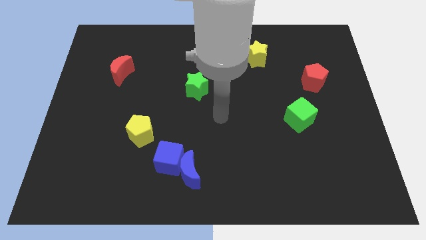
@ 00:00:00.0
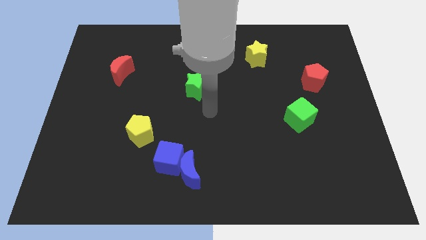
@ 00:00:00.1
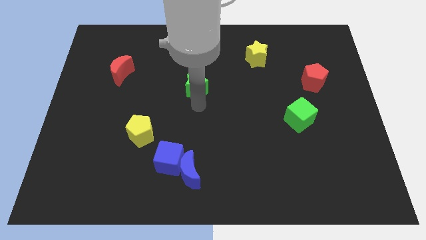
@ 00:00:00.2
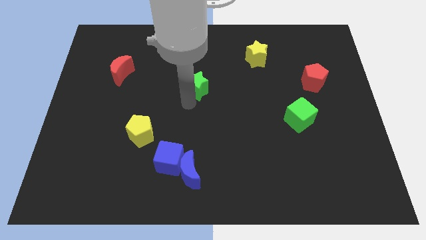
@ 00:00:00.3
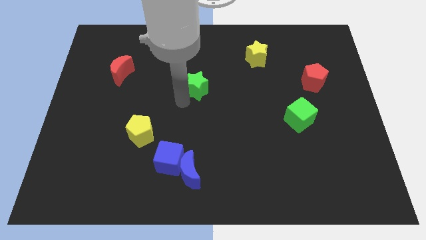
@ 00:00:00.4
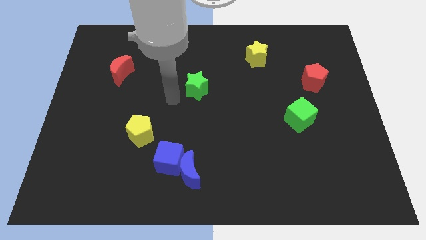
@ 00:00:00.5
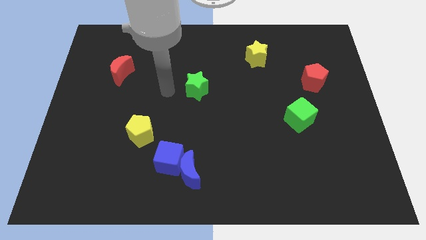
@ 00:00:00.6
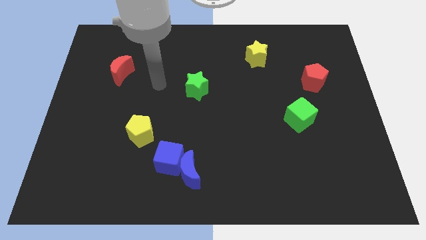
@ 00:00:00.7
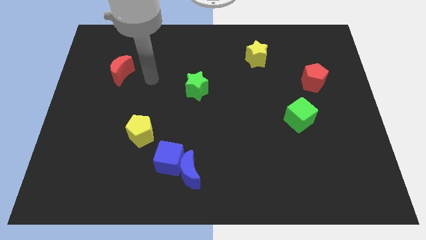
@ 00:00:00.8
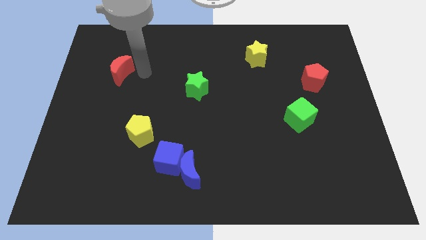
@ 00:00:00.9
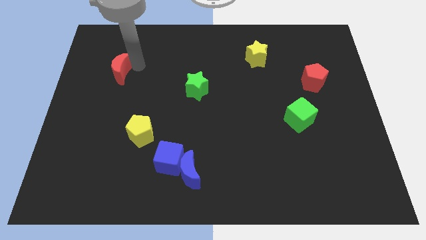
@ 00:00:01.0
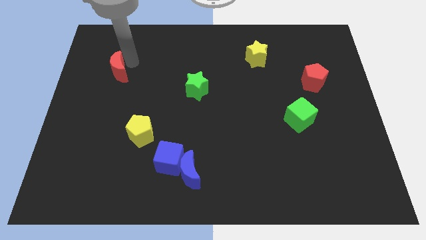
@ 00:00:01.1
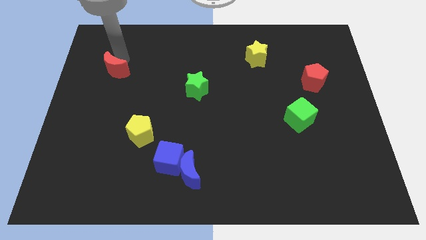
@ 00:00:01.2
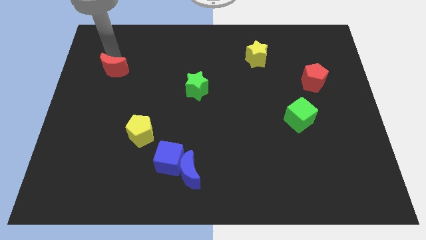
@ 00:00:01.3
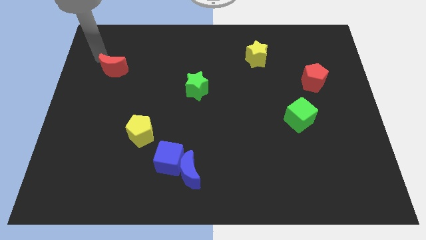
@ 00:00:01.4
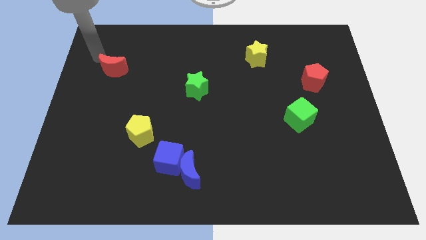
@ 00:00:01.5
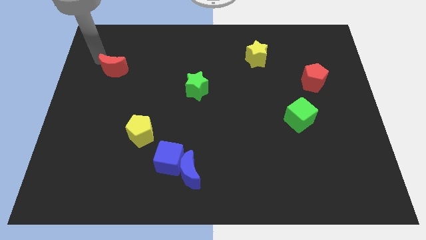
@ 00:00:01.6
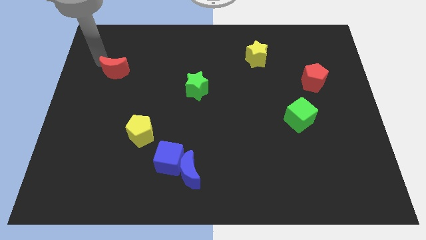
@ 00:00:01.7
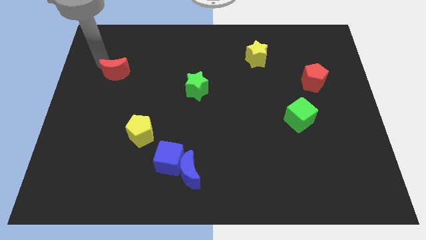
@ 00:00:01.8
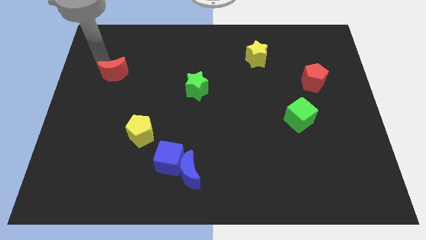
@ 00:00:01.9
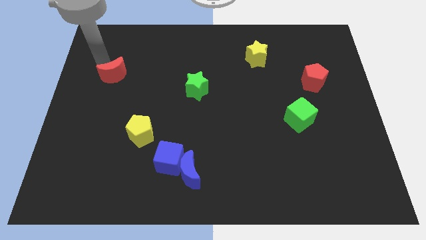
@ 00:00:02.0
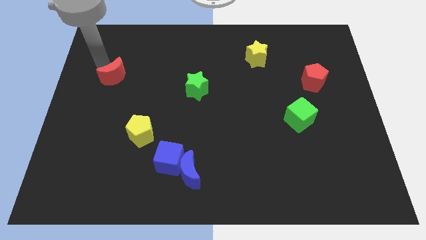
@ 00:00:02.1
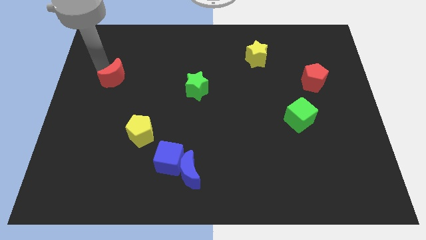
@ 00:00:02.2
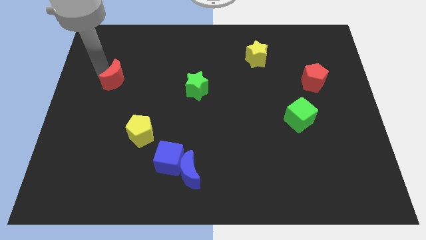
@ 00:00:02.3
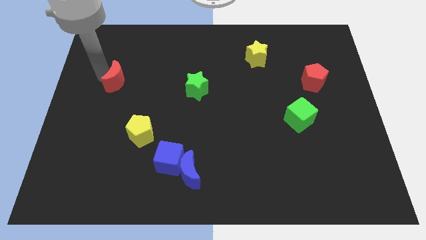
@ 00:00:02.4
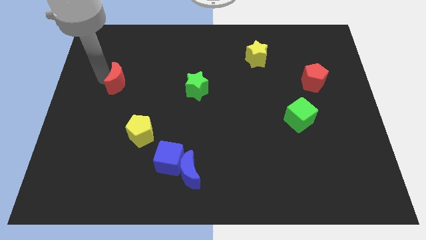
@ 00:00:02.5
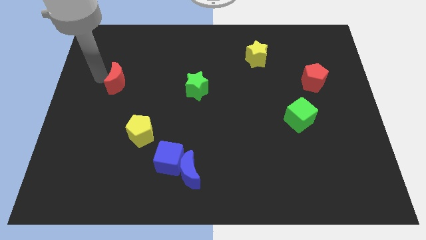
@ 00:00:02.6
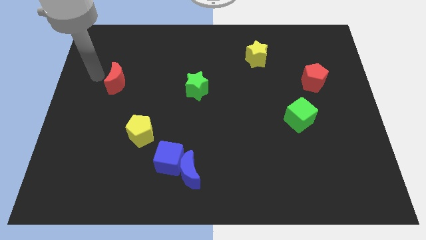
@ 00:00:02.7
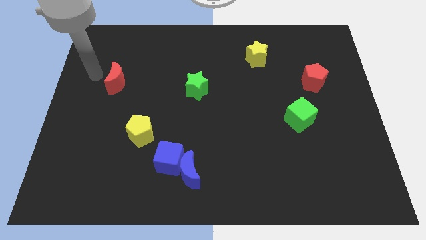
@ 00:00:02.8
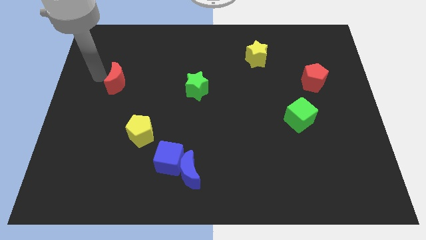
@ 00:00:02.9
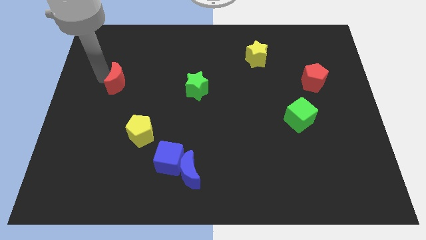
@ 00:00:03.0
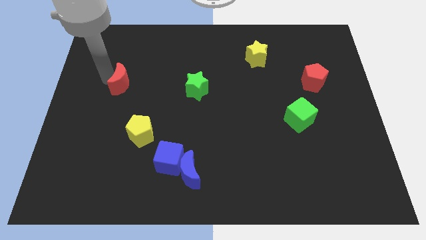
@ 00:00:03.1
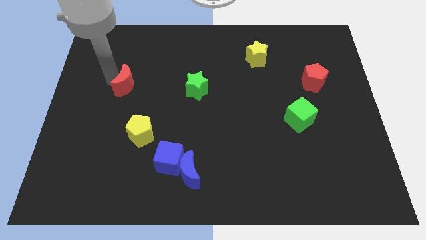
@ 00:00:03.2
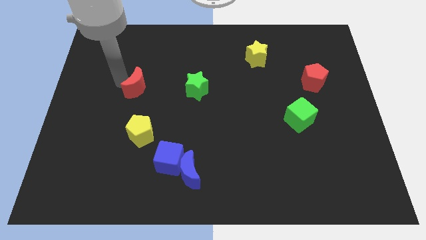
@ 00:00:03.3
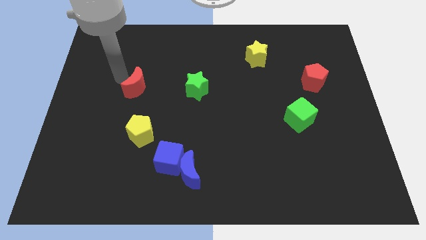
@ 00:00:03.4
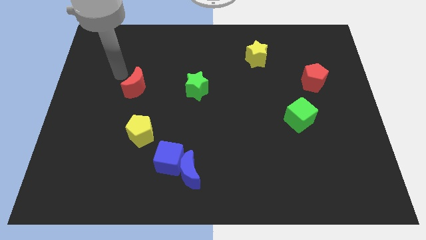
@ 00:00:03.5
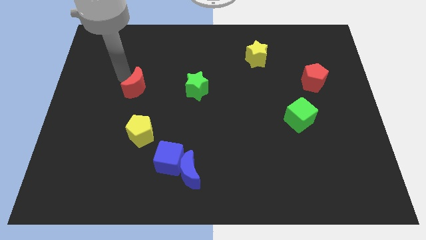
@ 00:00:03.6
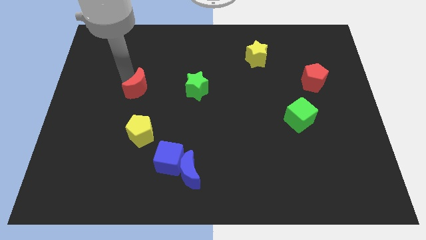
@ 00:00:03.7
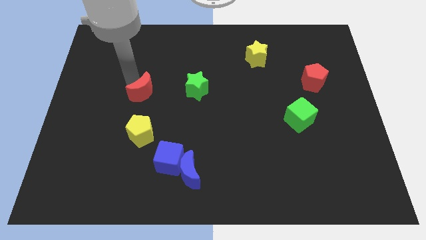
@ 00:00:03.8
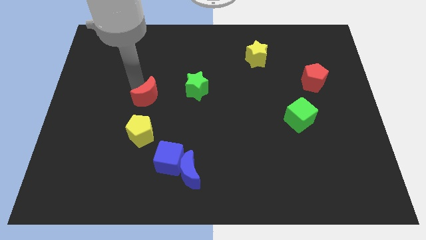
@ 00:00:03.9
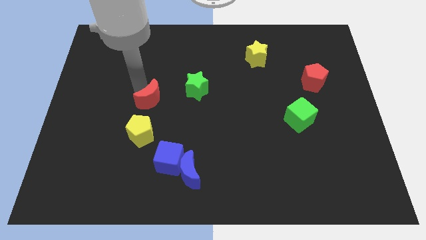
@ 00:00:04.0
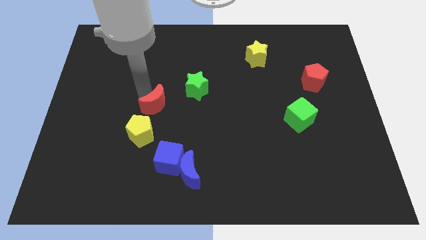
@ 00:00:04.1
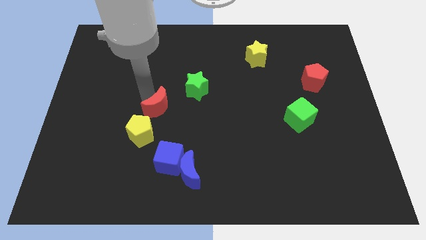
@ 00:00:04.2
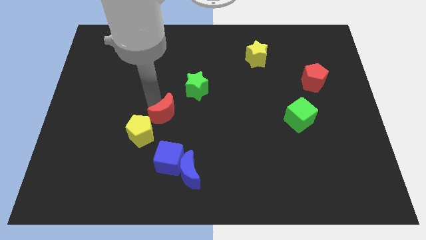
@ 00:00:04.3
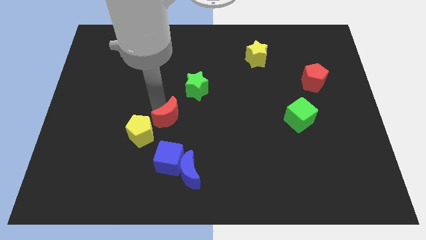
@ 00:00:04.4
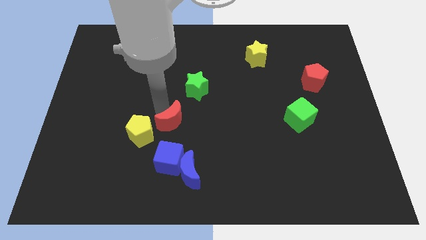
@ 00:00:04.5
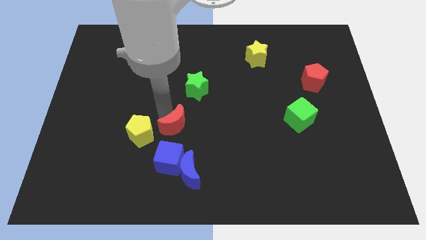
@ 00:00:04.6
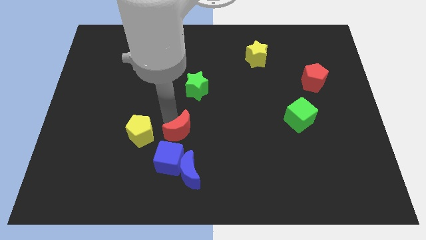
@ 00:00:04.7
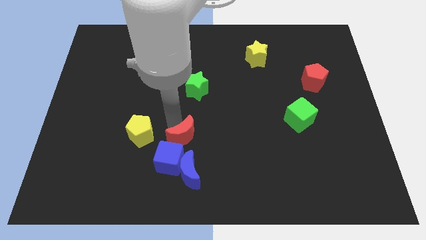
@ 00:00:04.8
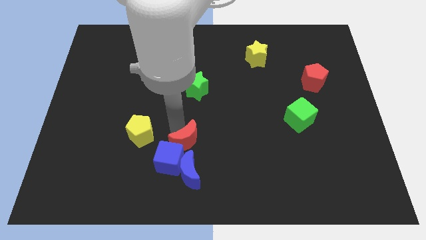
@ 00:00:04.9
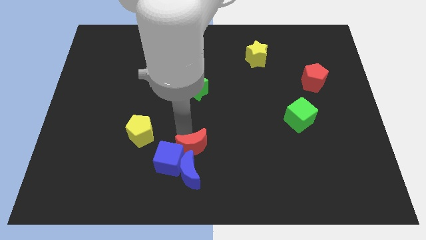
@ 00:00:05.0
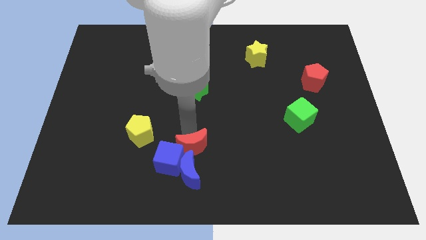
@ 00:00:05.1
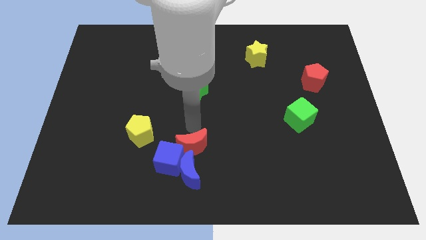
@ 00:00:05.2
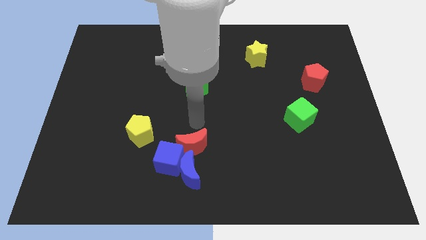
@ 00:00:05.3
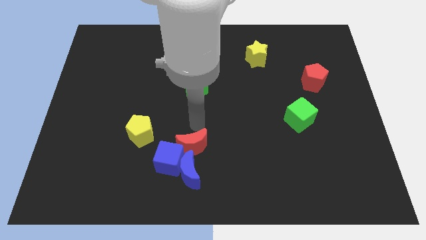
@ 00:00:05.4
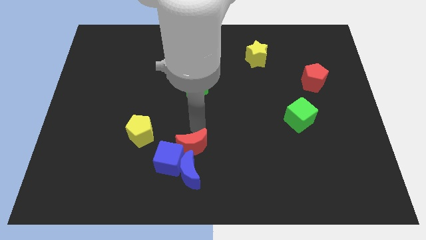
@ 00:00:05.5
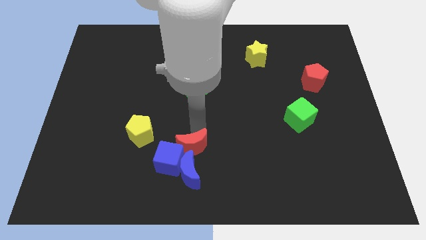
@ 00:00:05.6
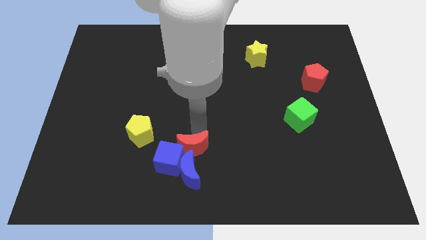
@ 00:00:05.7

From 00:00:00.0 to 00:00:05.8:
put the red moon next to the blue moon

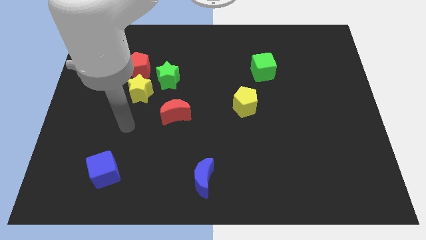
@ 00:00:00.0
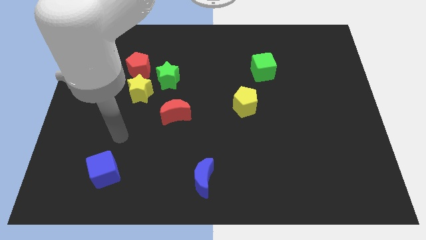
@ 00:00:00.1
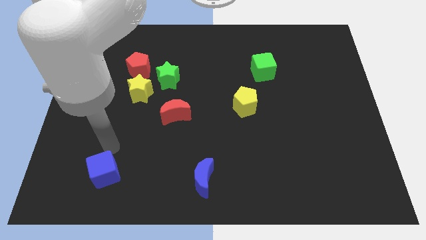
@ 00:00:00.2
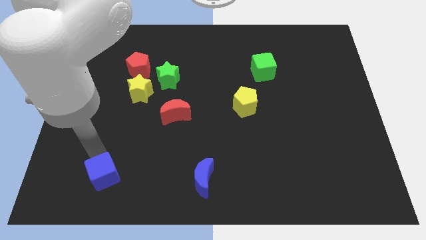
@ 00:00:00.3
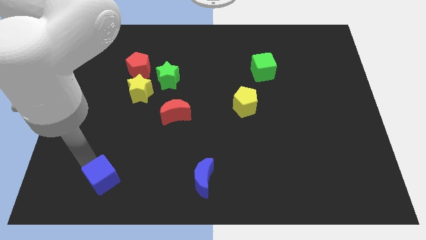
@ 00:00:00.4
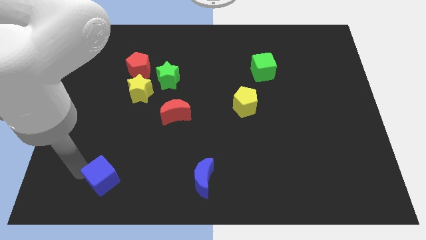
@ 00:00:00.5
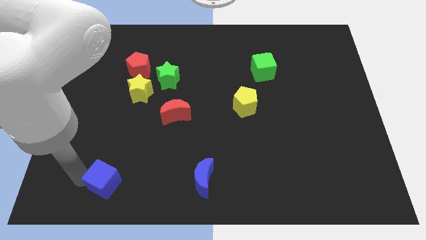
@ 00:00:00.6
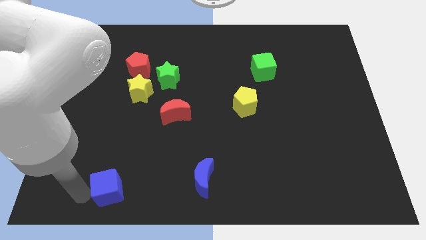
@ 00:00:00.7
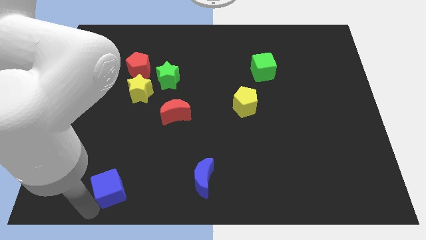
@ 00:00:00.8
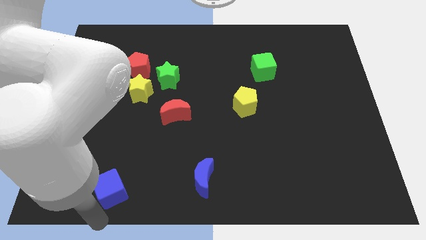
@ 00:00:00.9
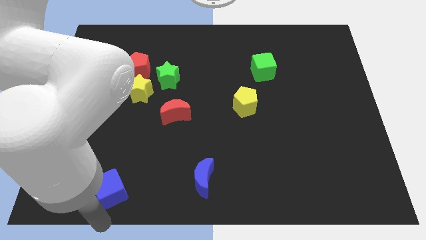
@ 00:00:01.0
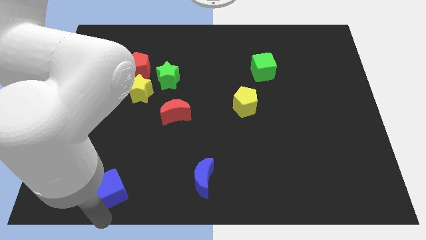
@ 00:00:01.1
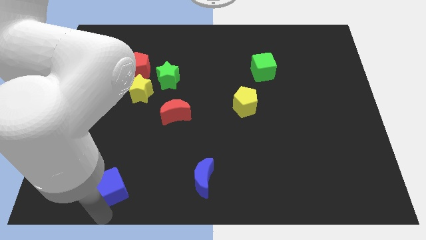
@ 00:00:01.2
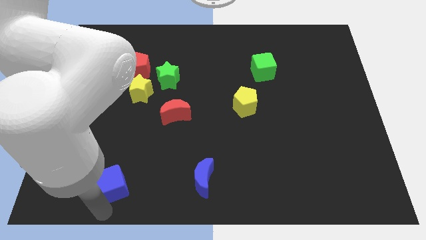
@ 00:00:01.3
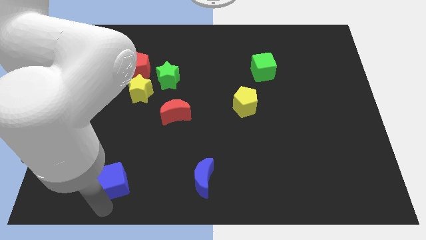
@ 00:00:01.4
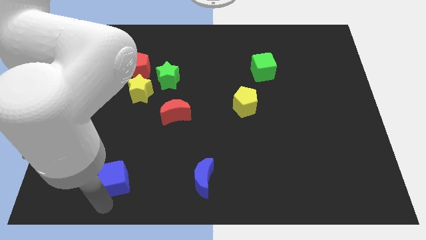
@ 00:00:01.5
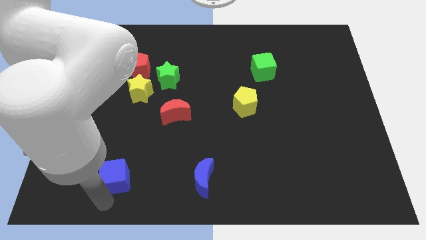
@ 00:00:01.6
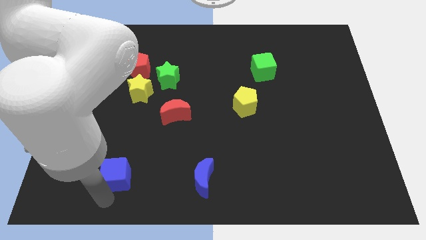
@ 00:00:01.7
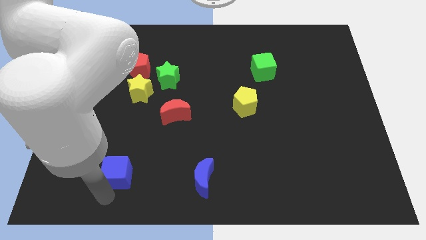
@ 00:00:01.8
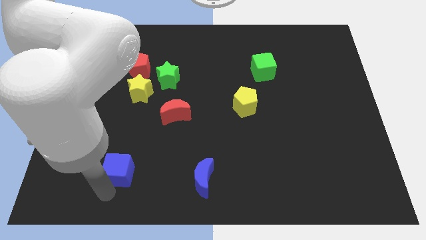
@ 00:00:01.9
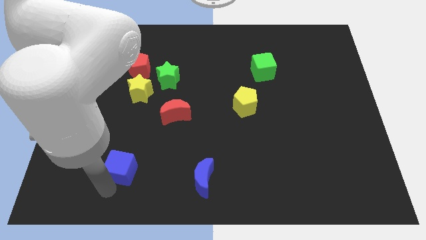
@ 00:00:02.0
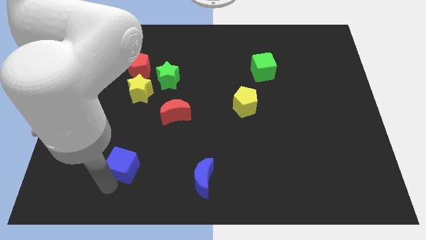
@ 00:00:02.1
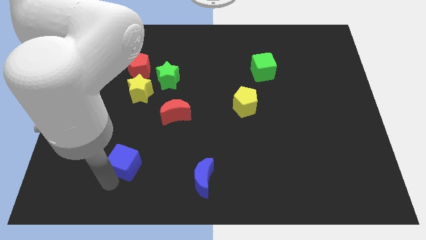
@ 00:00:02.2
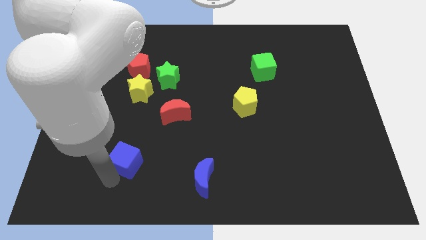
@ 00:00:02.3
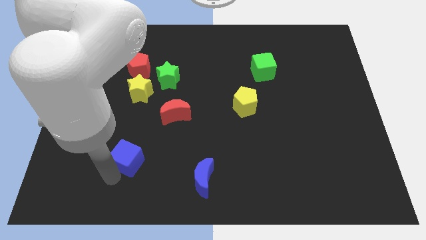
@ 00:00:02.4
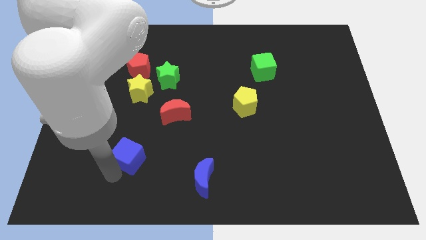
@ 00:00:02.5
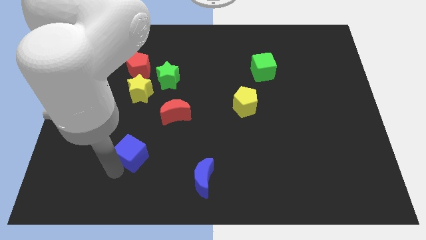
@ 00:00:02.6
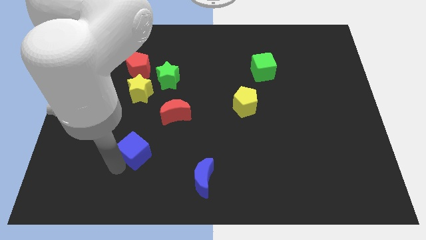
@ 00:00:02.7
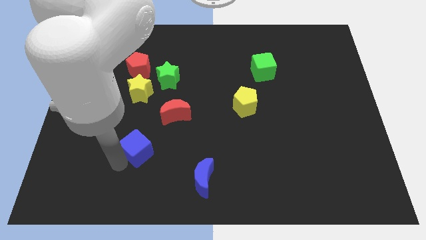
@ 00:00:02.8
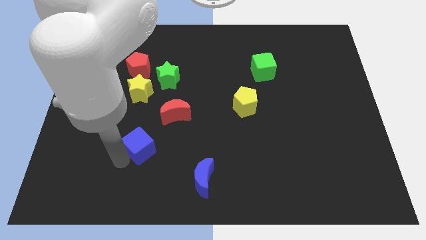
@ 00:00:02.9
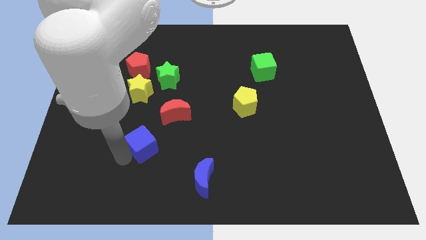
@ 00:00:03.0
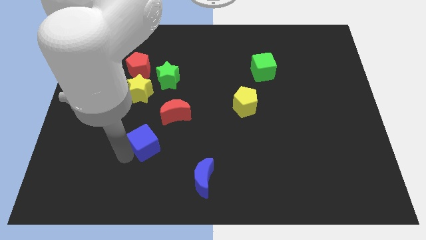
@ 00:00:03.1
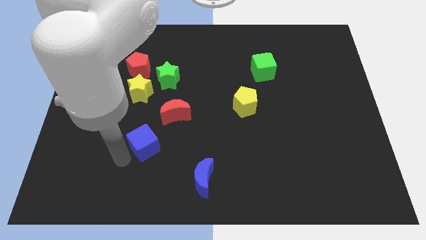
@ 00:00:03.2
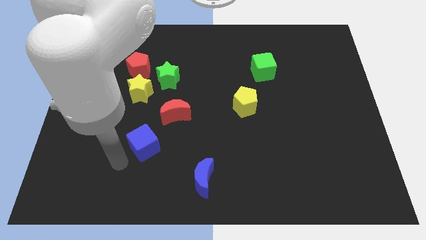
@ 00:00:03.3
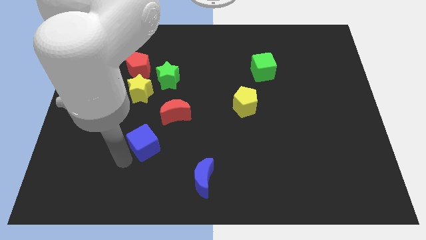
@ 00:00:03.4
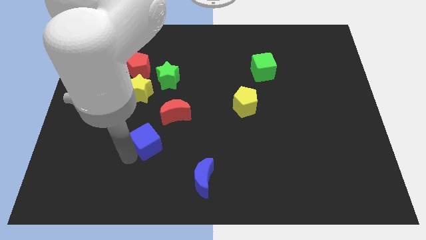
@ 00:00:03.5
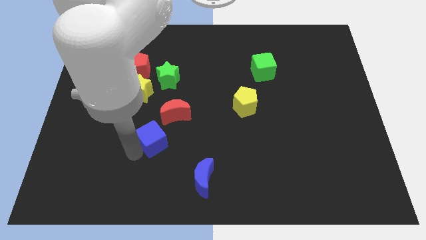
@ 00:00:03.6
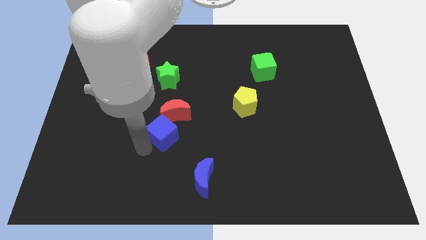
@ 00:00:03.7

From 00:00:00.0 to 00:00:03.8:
put the blue cube towards the red moon
